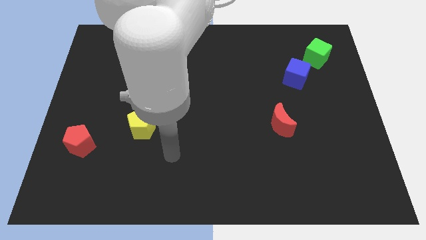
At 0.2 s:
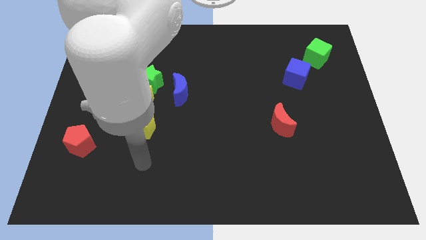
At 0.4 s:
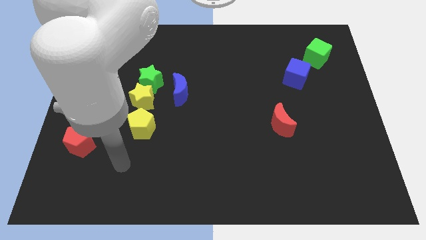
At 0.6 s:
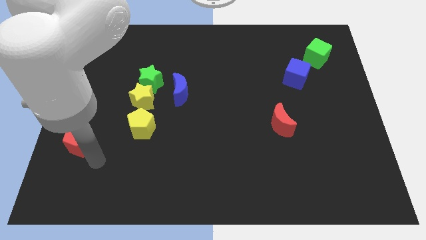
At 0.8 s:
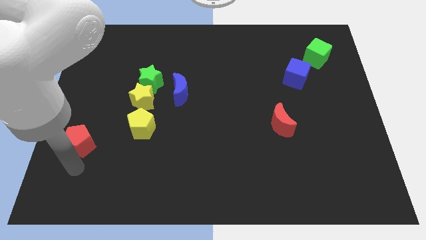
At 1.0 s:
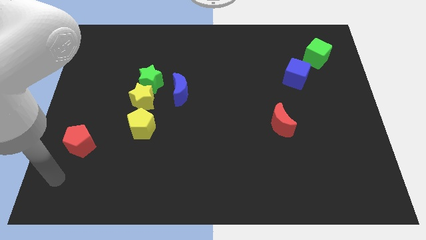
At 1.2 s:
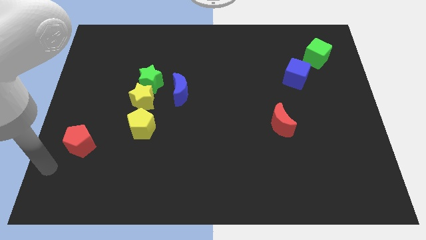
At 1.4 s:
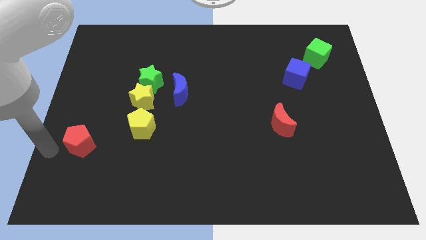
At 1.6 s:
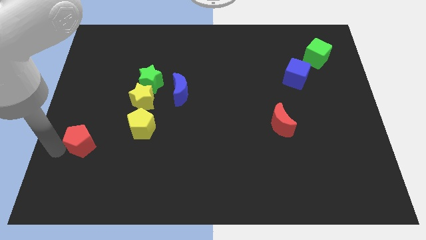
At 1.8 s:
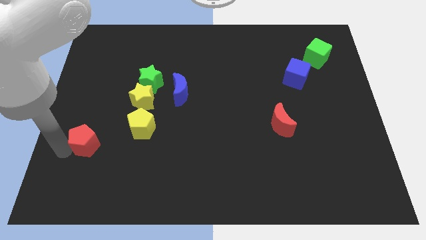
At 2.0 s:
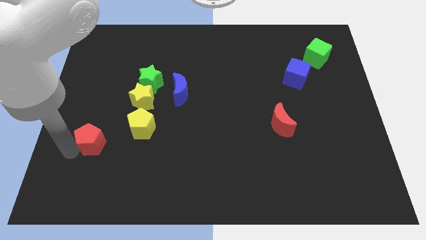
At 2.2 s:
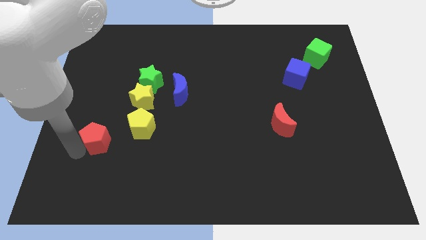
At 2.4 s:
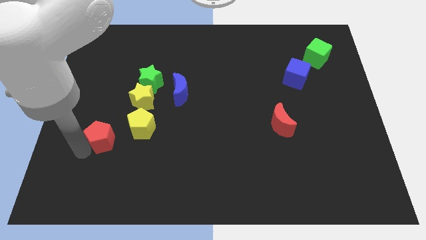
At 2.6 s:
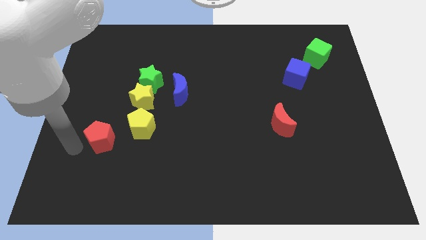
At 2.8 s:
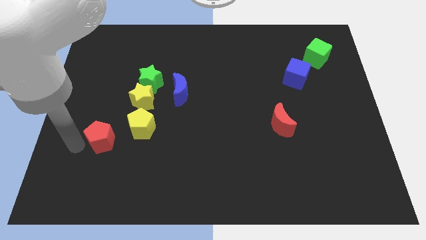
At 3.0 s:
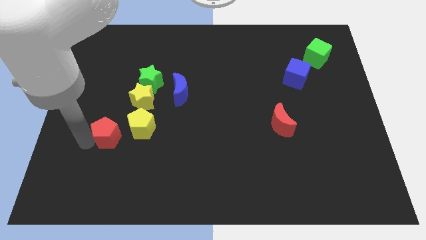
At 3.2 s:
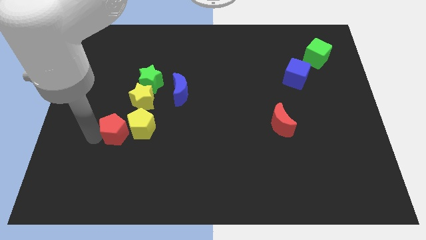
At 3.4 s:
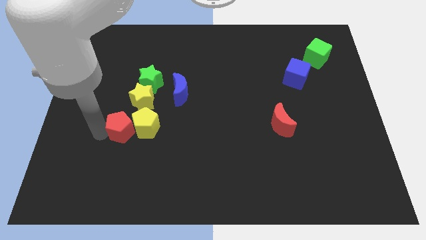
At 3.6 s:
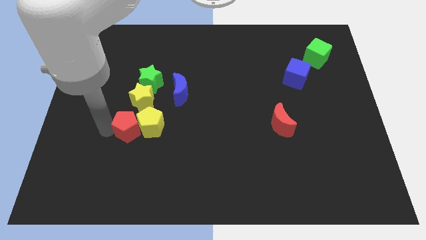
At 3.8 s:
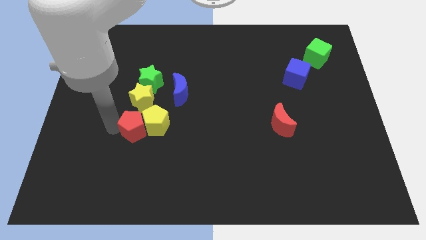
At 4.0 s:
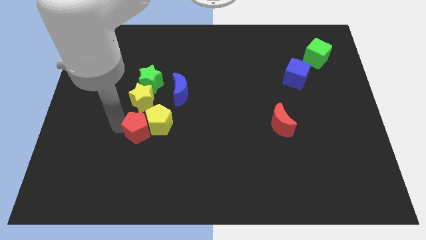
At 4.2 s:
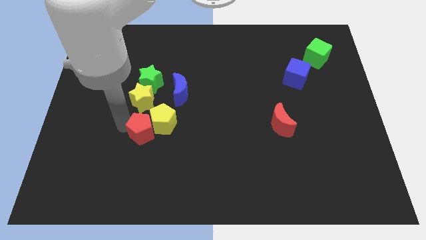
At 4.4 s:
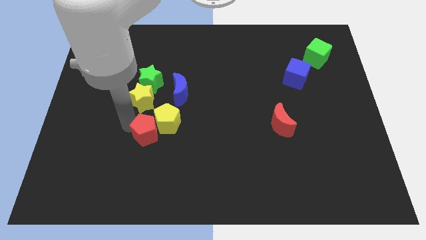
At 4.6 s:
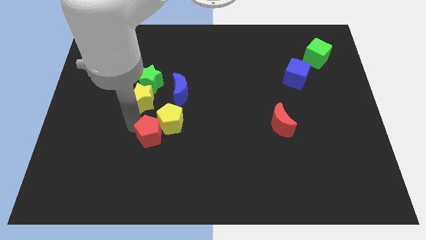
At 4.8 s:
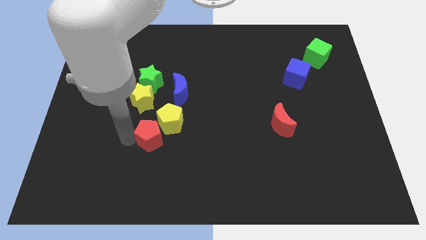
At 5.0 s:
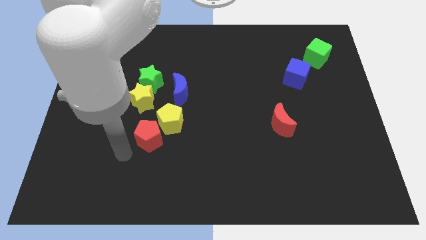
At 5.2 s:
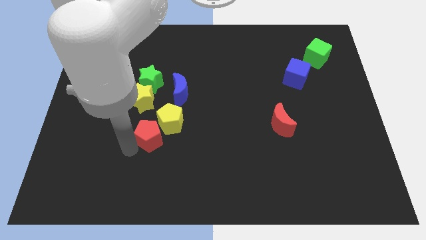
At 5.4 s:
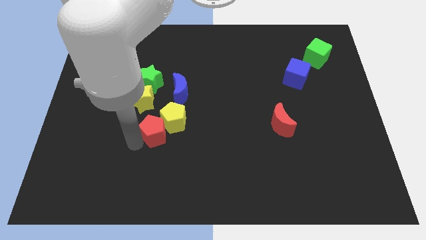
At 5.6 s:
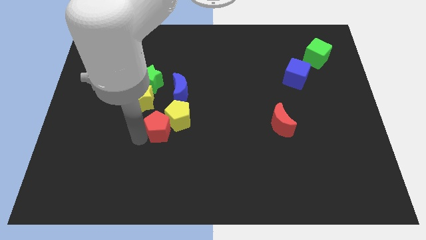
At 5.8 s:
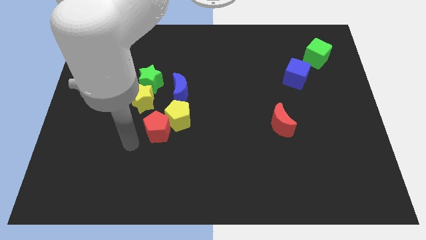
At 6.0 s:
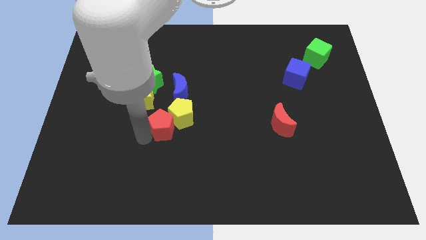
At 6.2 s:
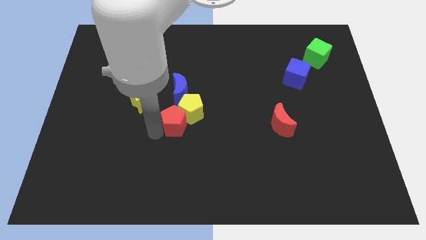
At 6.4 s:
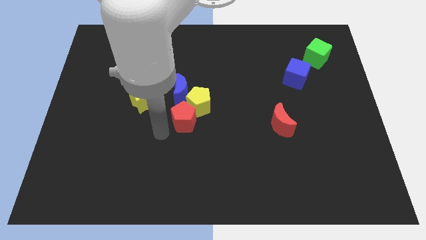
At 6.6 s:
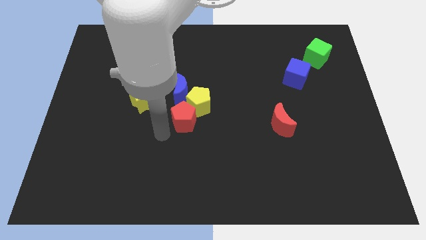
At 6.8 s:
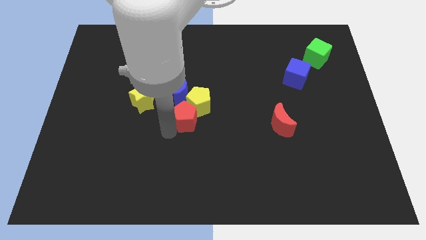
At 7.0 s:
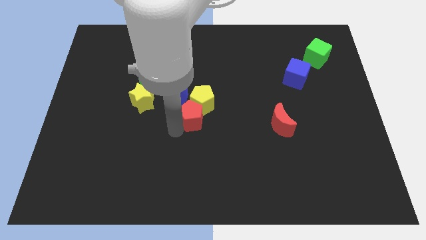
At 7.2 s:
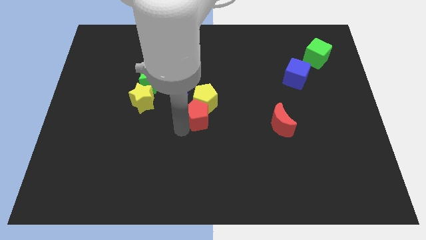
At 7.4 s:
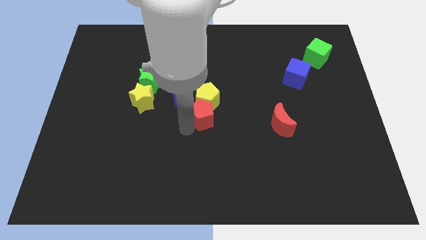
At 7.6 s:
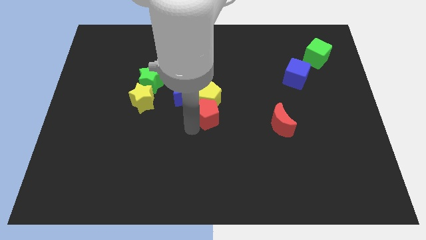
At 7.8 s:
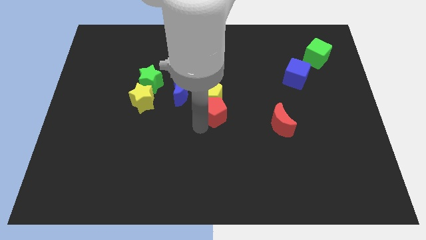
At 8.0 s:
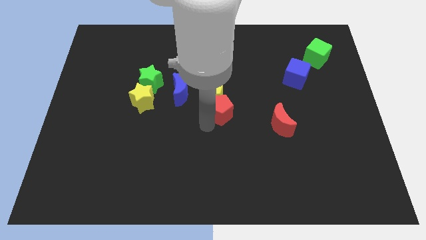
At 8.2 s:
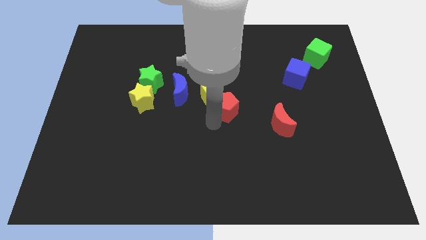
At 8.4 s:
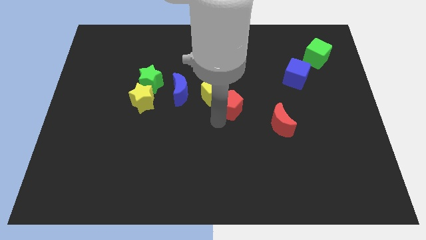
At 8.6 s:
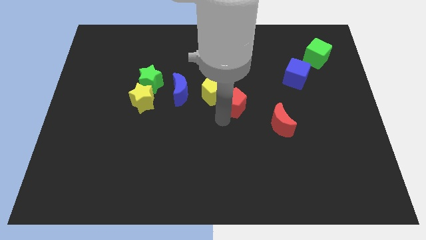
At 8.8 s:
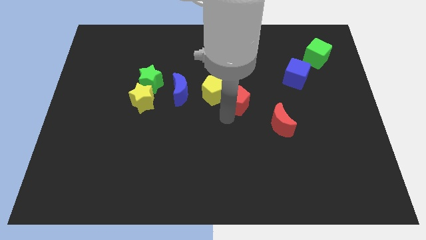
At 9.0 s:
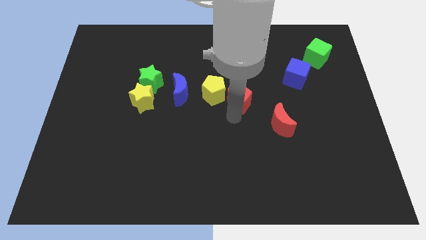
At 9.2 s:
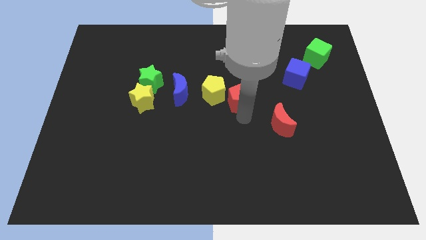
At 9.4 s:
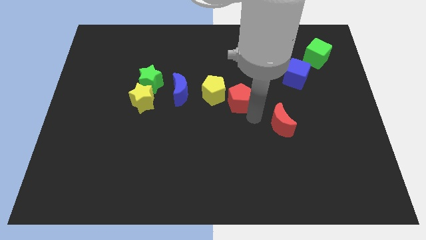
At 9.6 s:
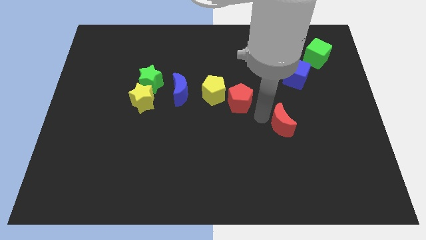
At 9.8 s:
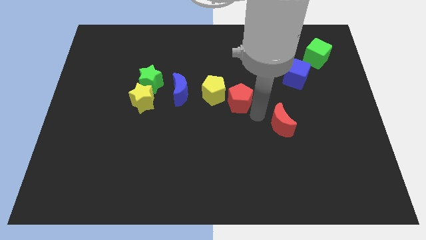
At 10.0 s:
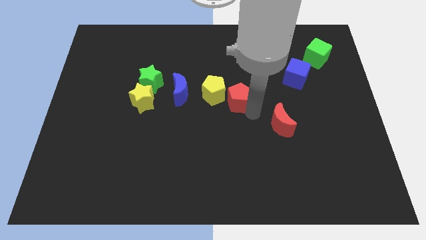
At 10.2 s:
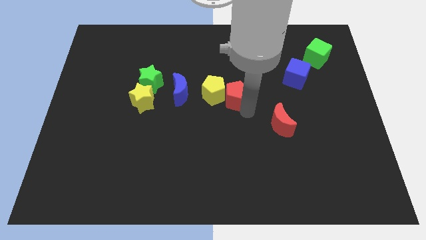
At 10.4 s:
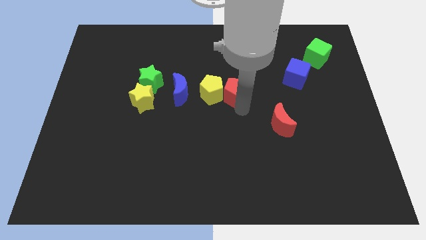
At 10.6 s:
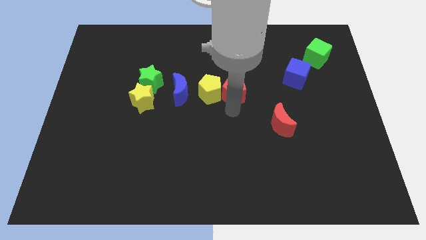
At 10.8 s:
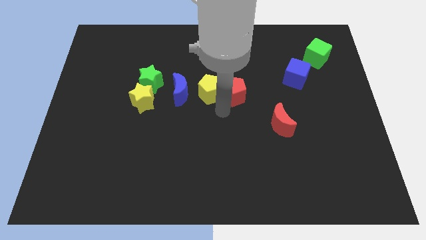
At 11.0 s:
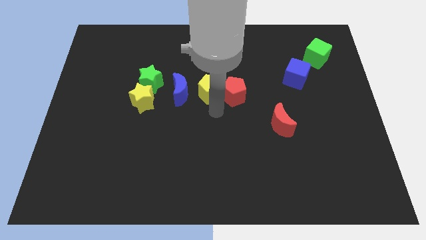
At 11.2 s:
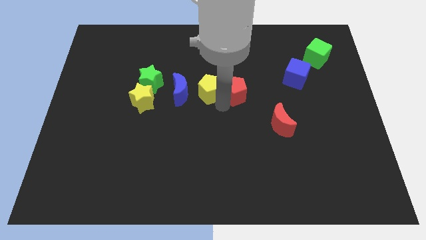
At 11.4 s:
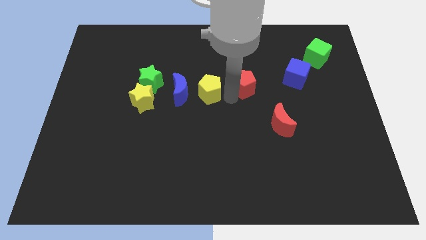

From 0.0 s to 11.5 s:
push the red pentagon just left of the blue cube

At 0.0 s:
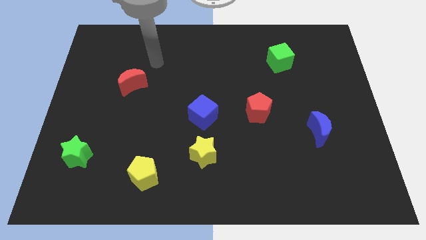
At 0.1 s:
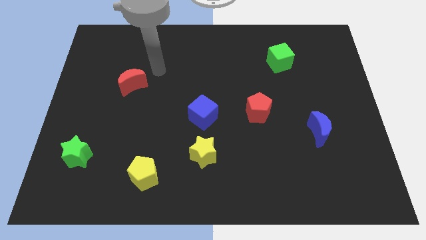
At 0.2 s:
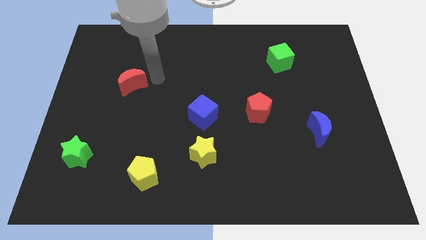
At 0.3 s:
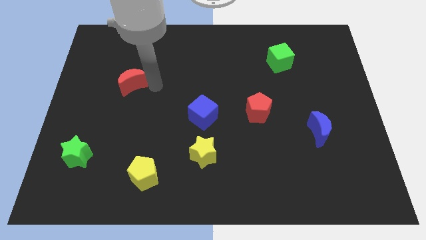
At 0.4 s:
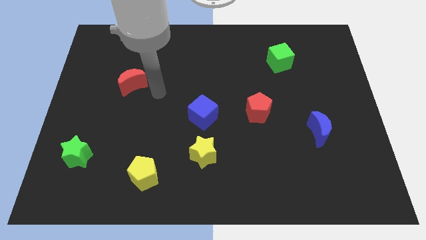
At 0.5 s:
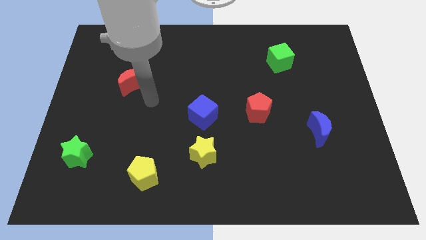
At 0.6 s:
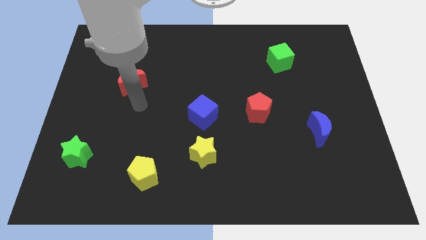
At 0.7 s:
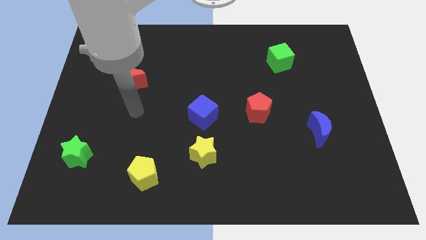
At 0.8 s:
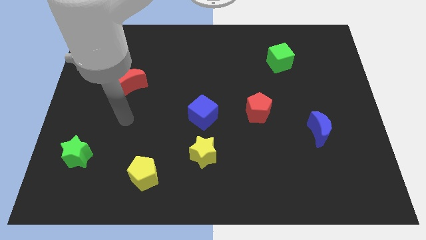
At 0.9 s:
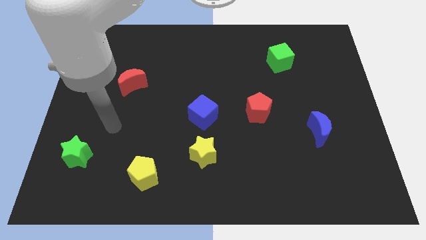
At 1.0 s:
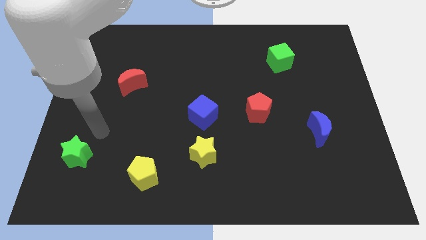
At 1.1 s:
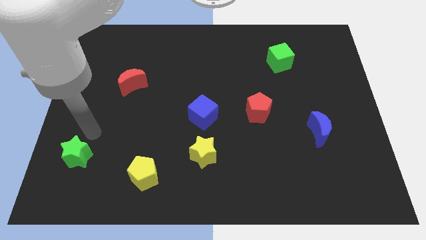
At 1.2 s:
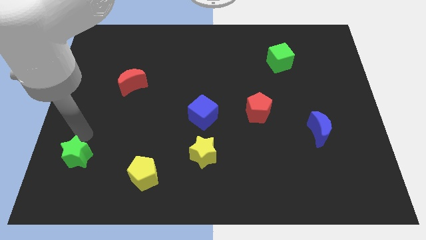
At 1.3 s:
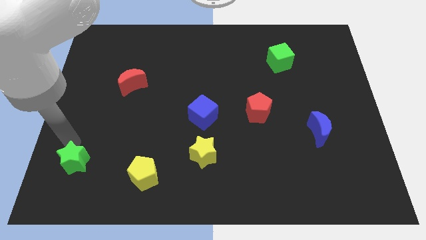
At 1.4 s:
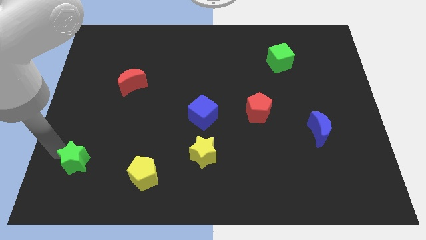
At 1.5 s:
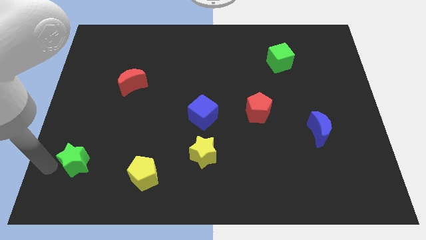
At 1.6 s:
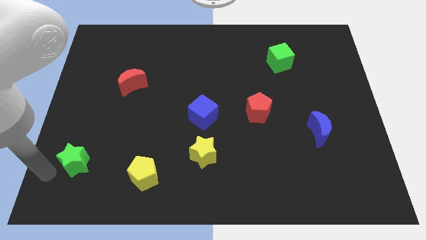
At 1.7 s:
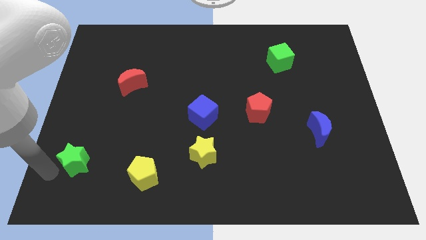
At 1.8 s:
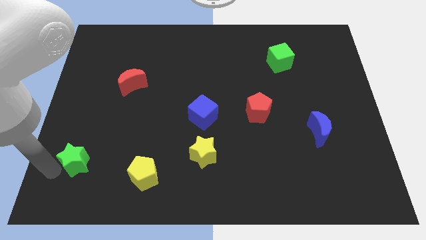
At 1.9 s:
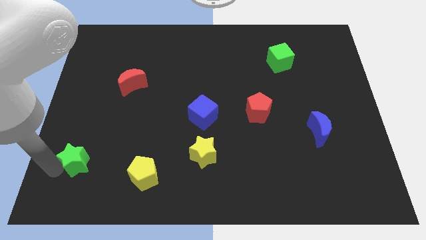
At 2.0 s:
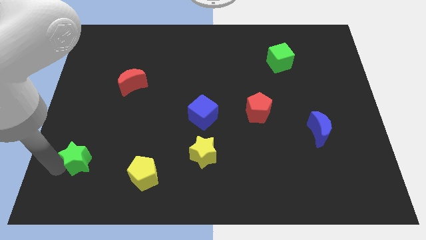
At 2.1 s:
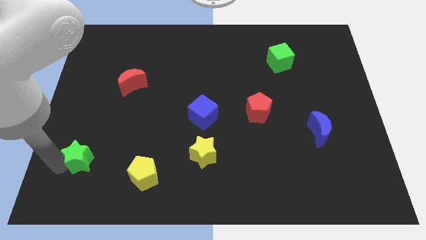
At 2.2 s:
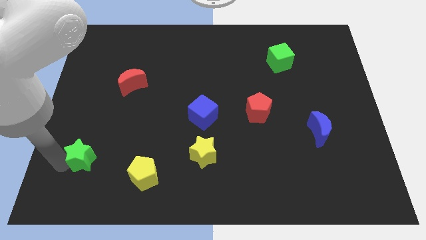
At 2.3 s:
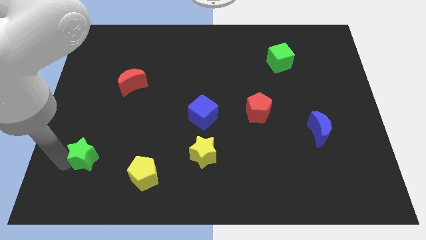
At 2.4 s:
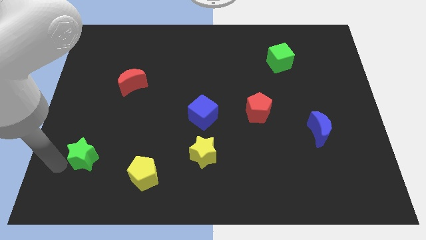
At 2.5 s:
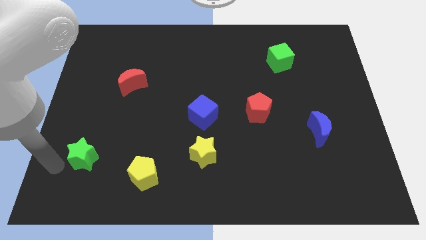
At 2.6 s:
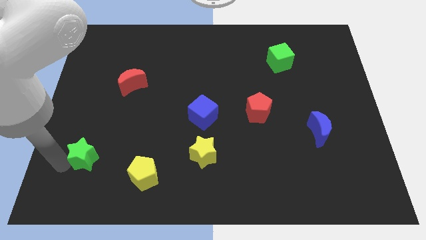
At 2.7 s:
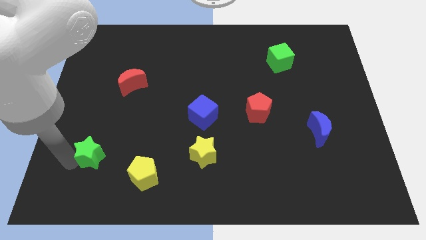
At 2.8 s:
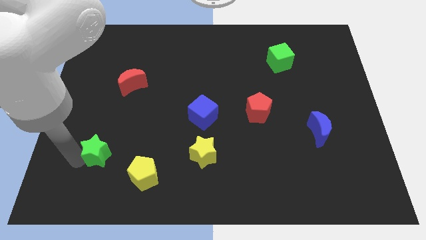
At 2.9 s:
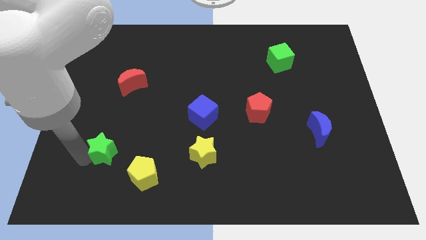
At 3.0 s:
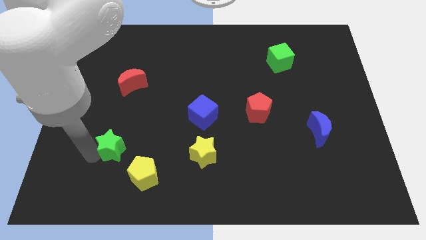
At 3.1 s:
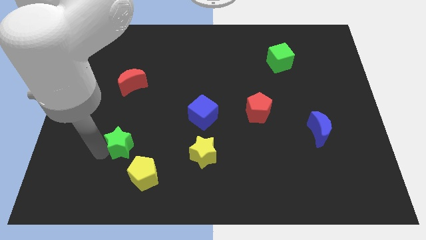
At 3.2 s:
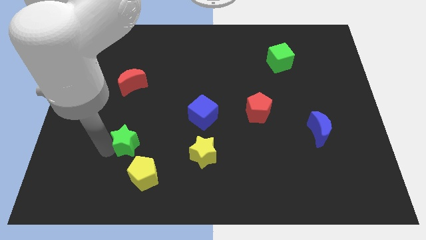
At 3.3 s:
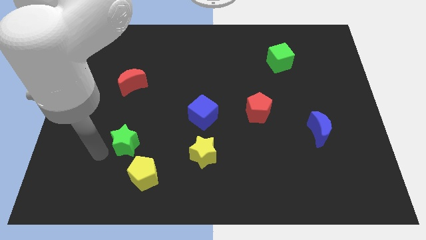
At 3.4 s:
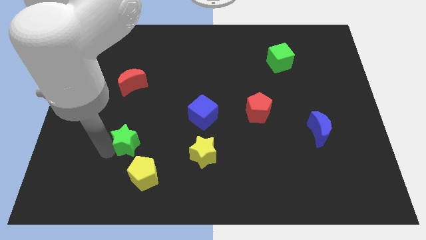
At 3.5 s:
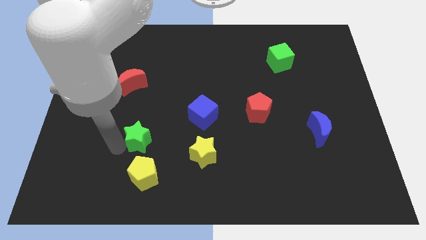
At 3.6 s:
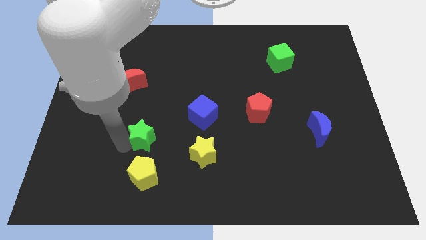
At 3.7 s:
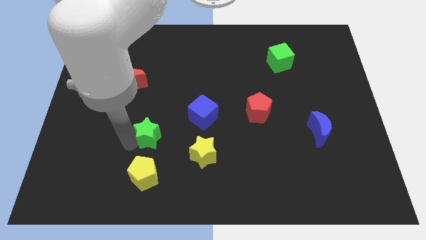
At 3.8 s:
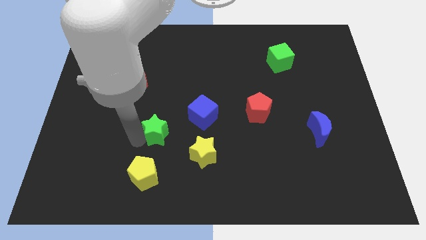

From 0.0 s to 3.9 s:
move the green star to the top left of the yellow star
